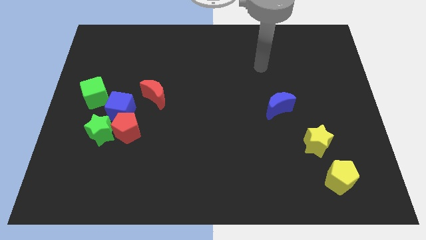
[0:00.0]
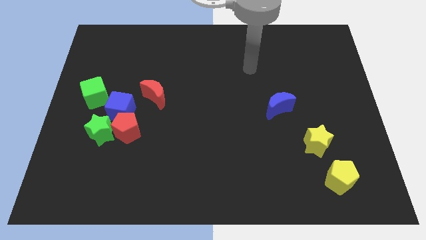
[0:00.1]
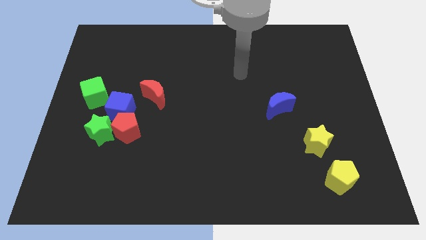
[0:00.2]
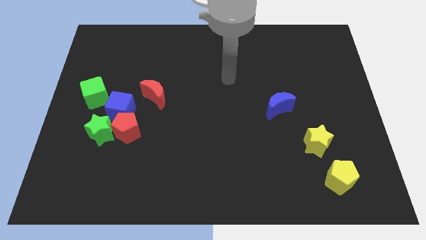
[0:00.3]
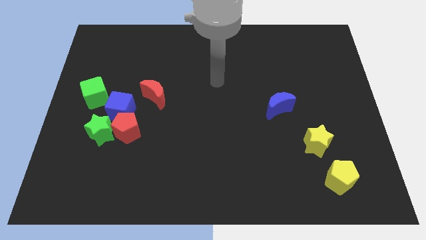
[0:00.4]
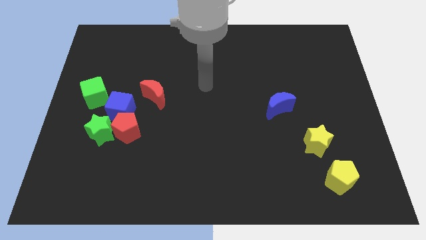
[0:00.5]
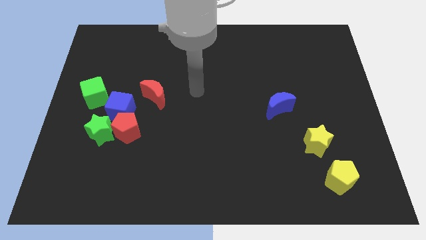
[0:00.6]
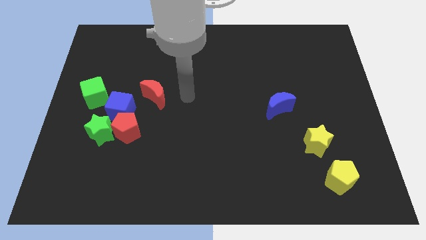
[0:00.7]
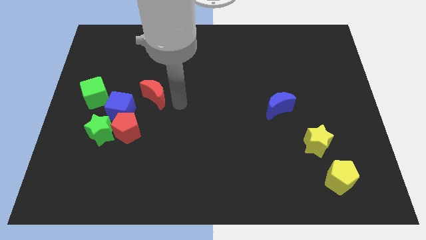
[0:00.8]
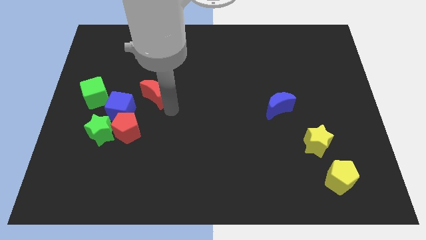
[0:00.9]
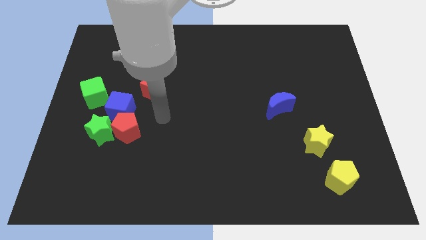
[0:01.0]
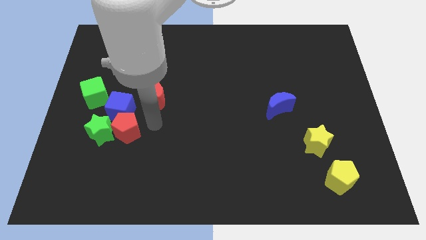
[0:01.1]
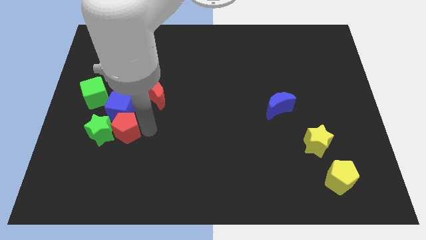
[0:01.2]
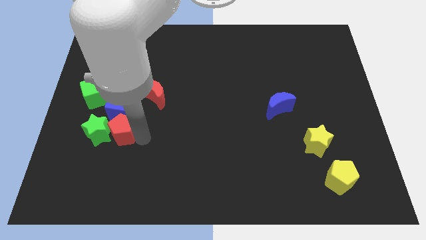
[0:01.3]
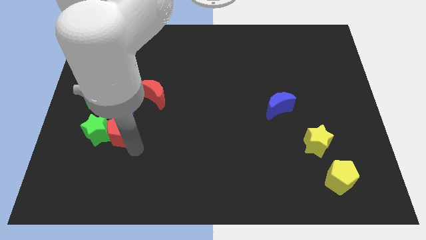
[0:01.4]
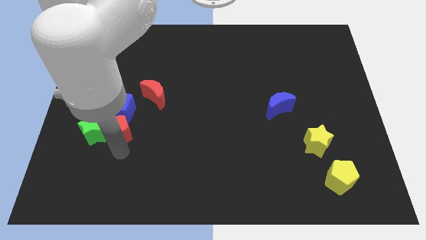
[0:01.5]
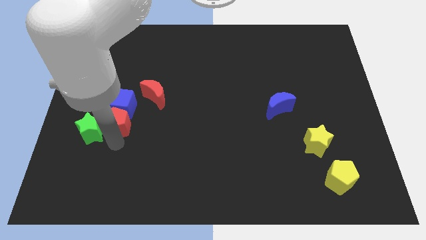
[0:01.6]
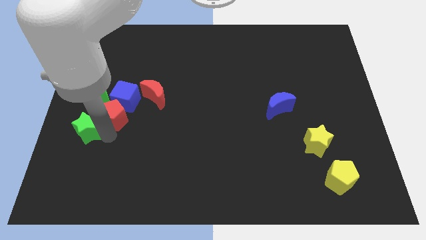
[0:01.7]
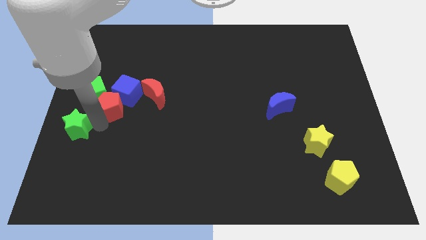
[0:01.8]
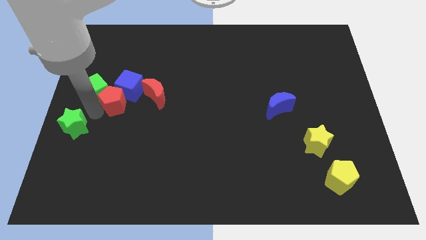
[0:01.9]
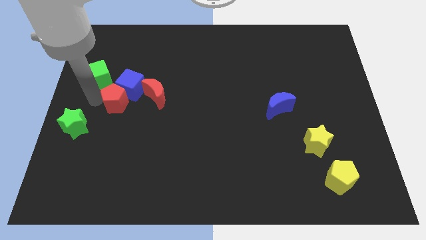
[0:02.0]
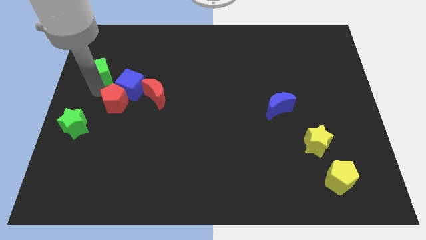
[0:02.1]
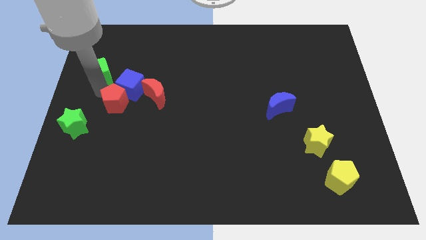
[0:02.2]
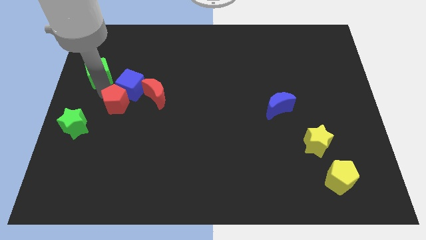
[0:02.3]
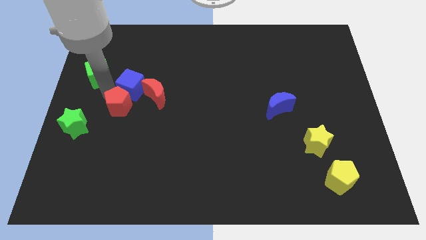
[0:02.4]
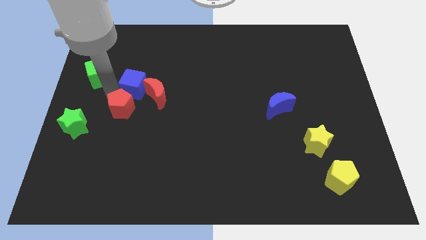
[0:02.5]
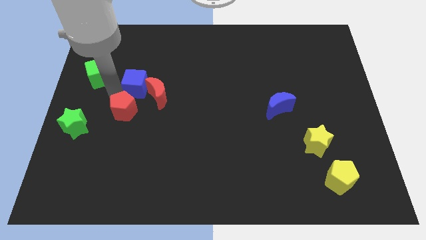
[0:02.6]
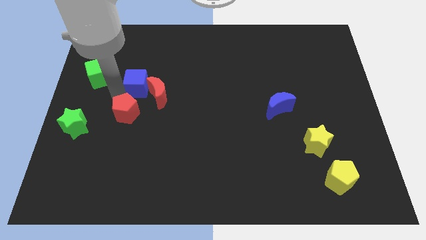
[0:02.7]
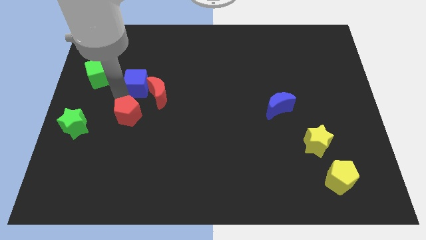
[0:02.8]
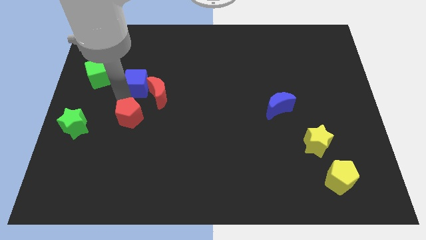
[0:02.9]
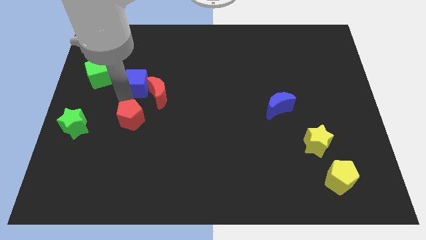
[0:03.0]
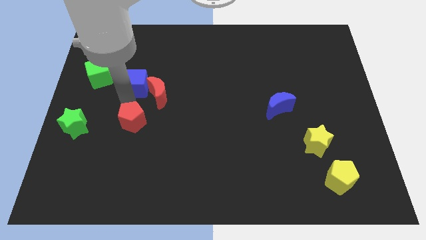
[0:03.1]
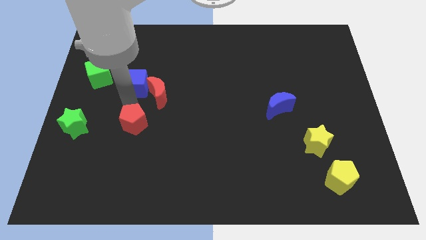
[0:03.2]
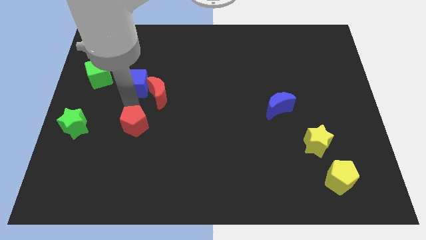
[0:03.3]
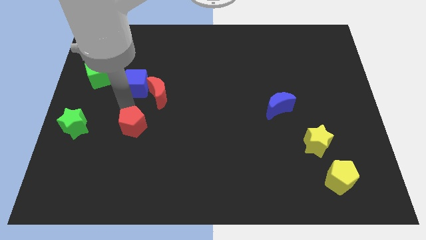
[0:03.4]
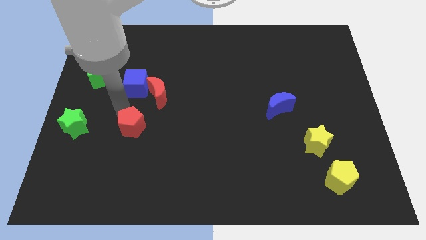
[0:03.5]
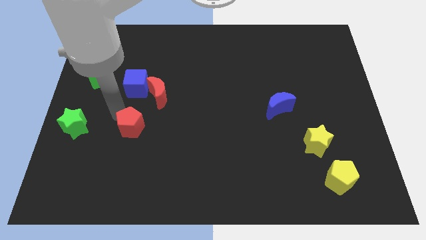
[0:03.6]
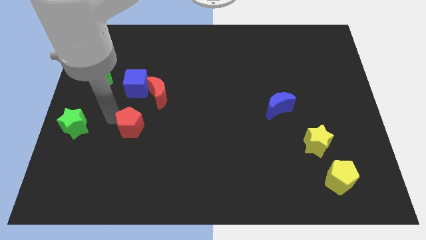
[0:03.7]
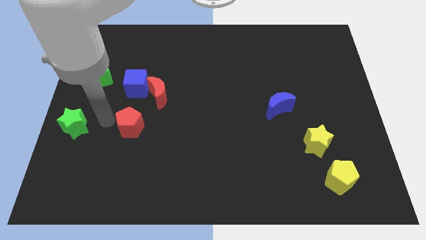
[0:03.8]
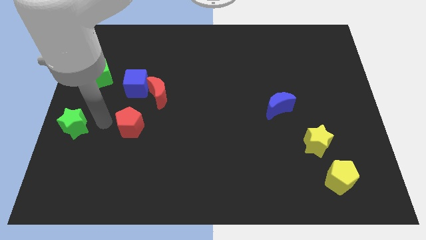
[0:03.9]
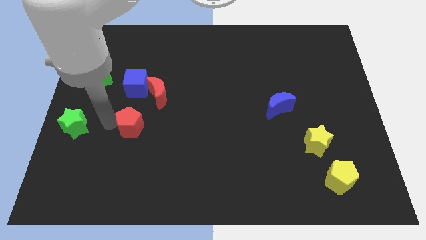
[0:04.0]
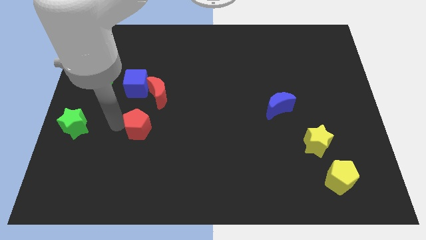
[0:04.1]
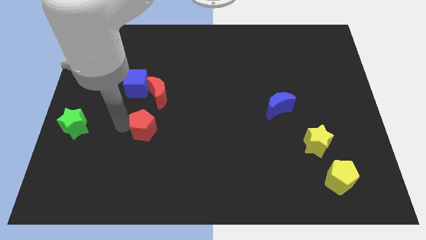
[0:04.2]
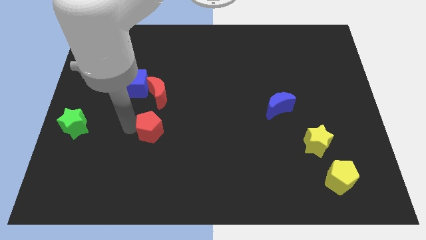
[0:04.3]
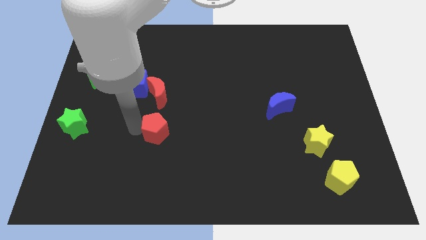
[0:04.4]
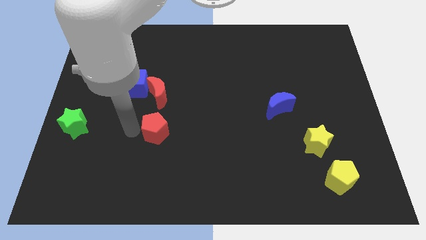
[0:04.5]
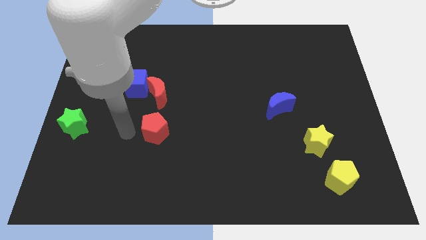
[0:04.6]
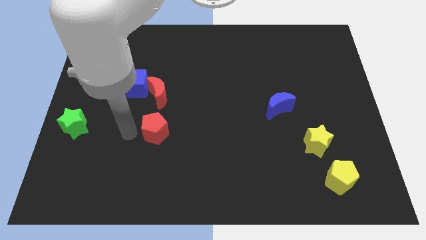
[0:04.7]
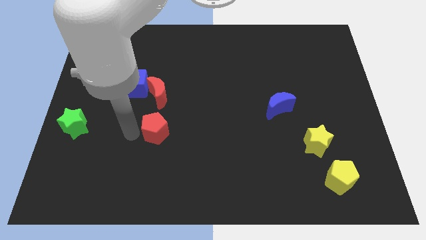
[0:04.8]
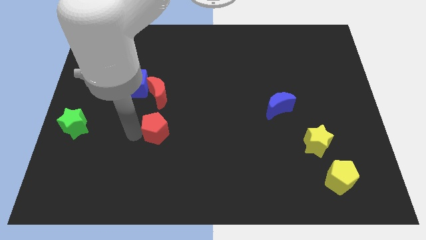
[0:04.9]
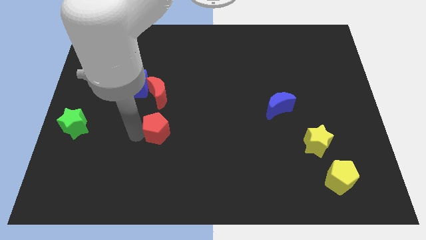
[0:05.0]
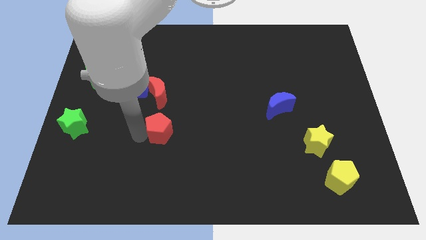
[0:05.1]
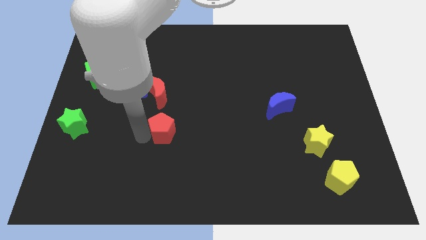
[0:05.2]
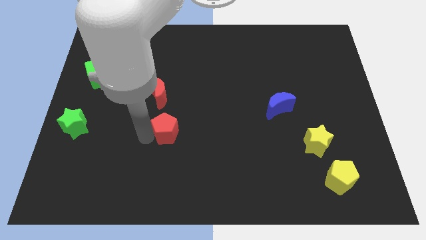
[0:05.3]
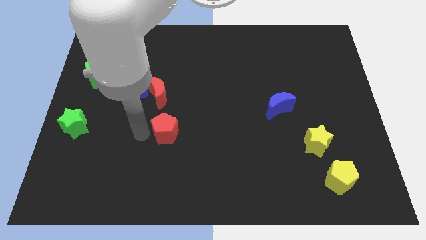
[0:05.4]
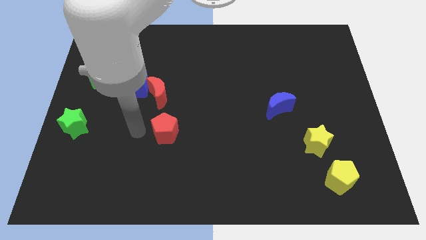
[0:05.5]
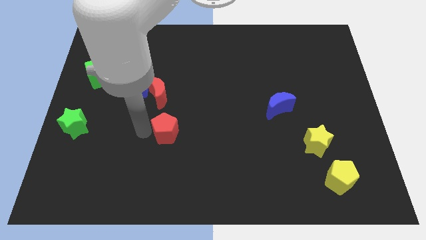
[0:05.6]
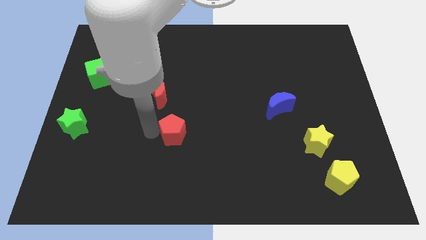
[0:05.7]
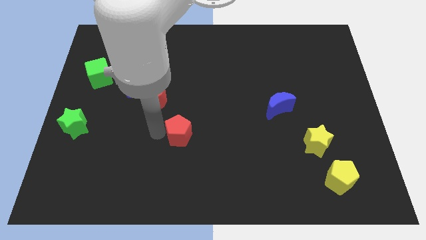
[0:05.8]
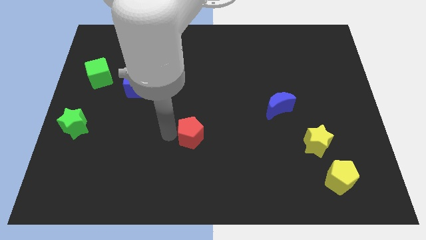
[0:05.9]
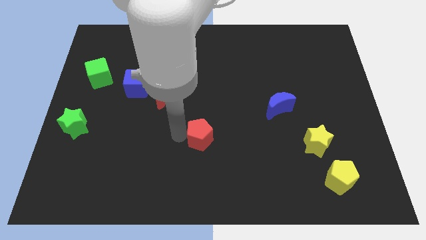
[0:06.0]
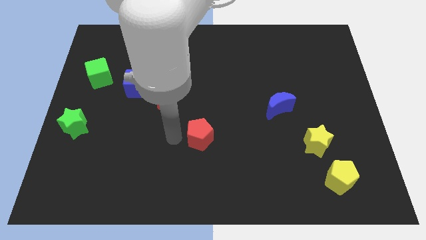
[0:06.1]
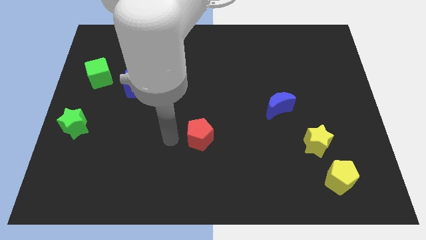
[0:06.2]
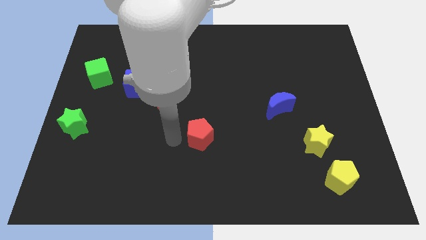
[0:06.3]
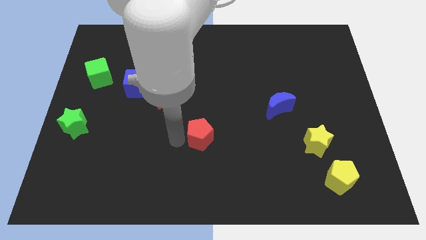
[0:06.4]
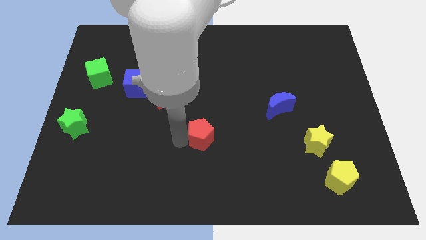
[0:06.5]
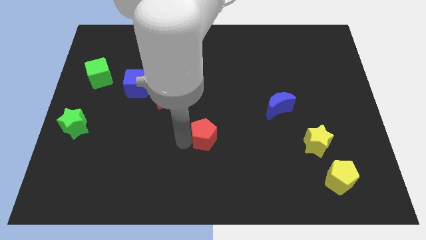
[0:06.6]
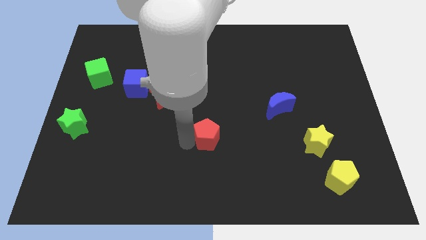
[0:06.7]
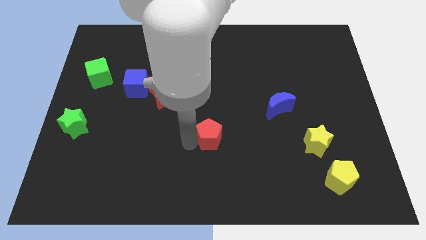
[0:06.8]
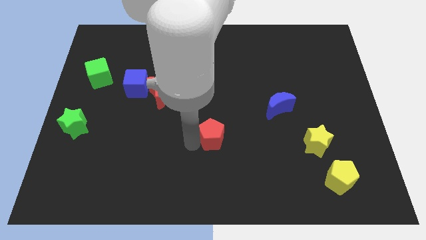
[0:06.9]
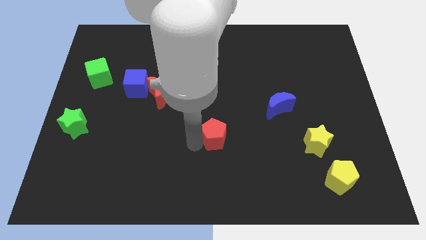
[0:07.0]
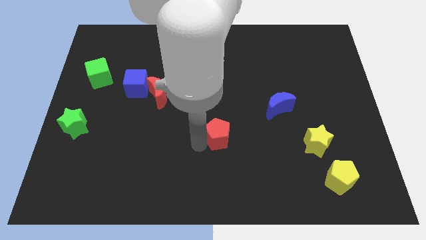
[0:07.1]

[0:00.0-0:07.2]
move the red pentagon to the right

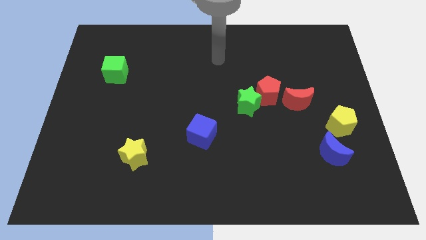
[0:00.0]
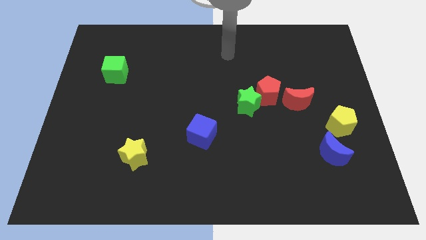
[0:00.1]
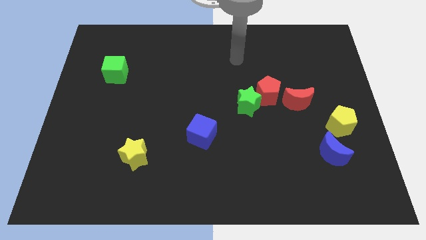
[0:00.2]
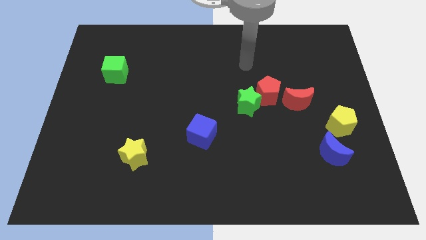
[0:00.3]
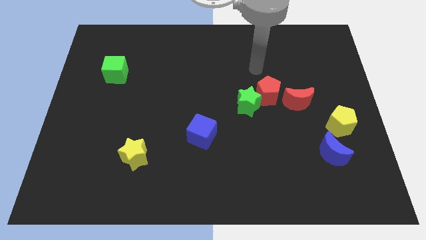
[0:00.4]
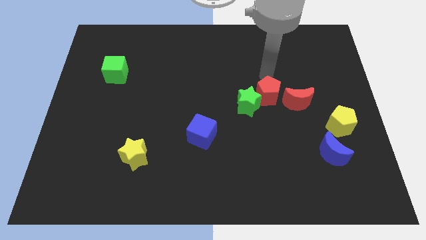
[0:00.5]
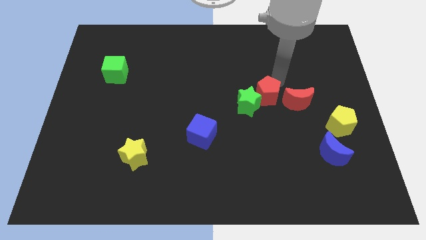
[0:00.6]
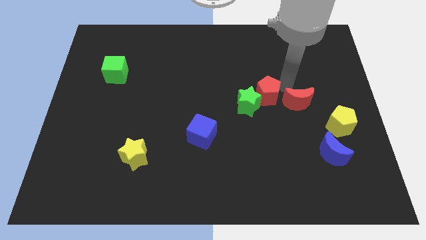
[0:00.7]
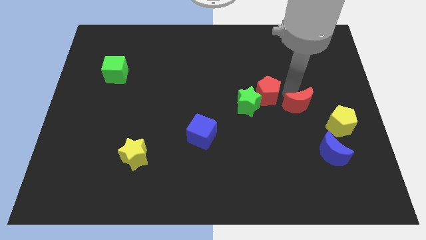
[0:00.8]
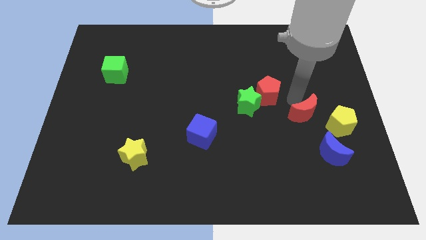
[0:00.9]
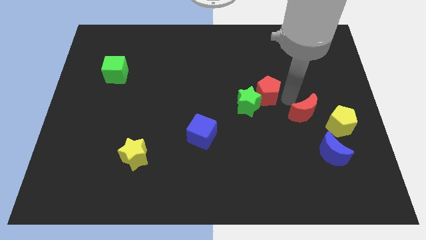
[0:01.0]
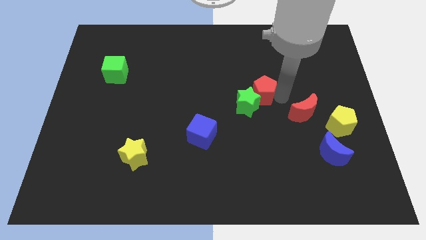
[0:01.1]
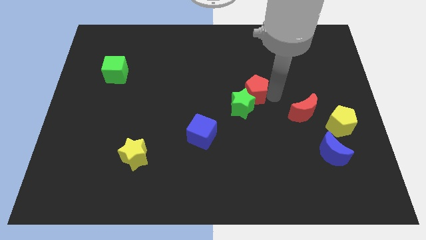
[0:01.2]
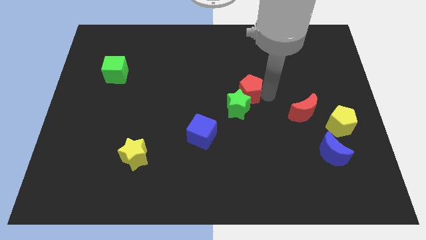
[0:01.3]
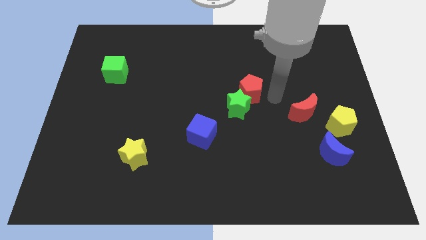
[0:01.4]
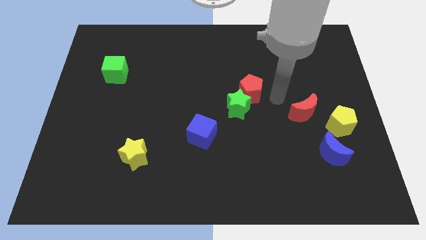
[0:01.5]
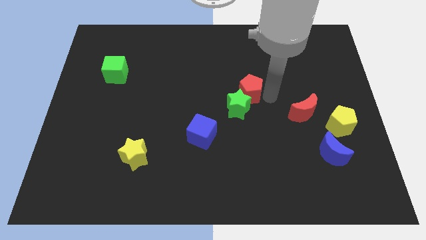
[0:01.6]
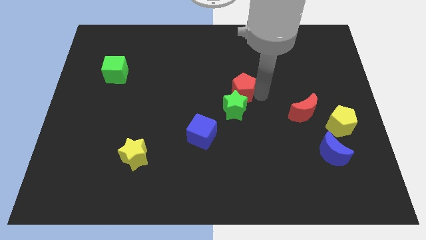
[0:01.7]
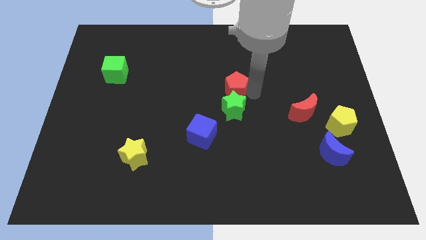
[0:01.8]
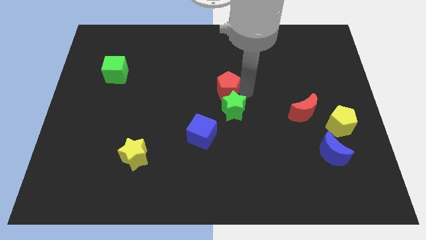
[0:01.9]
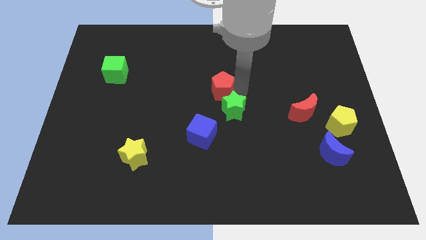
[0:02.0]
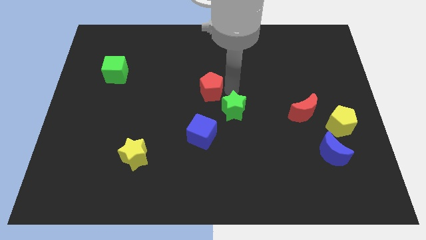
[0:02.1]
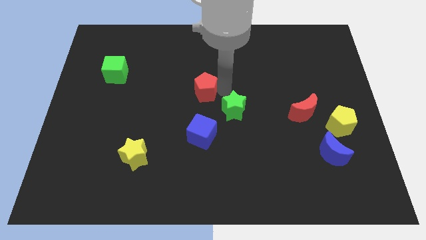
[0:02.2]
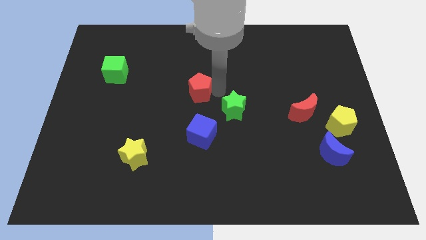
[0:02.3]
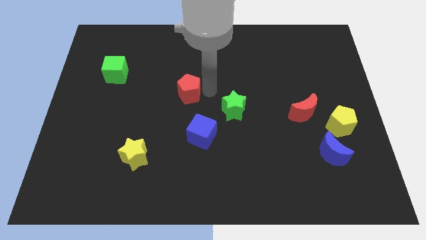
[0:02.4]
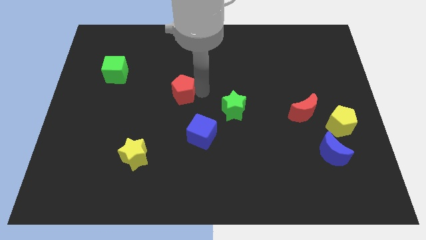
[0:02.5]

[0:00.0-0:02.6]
push the red pentagon to the left
